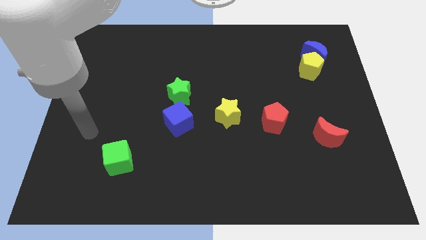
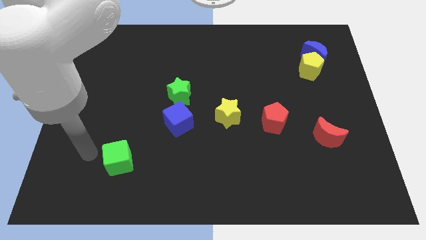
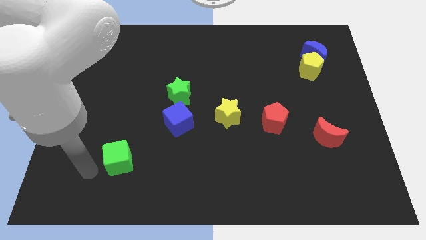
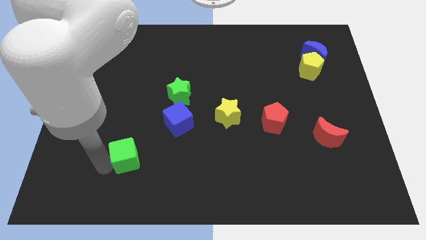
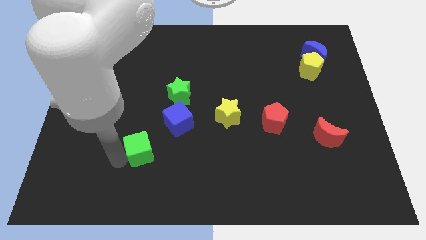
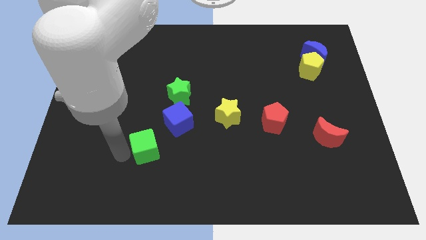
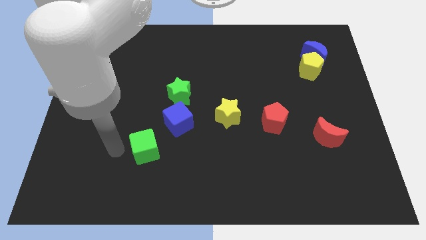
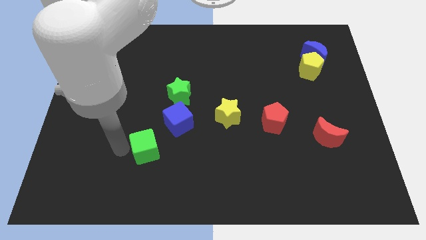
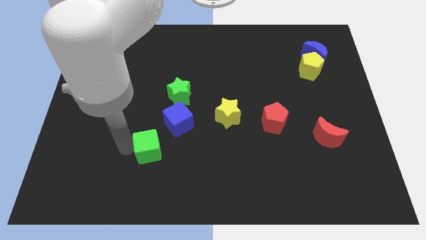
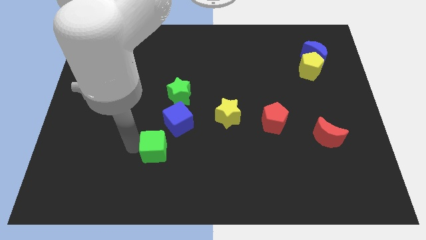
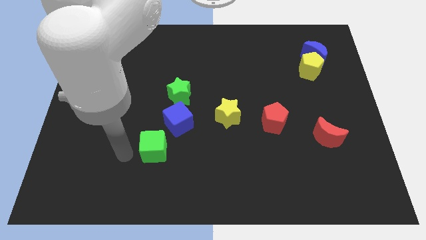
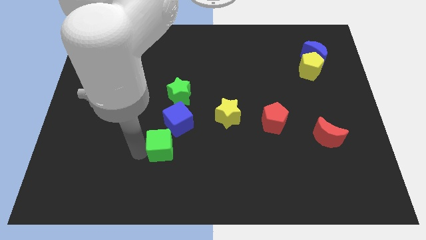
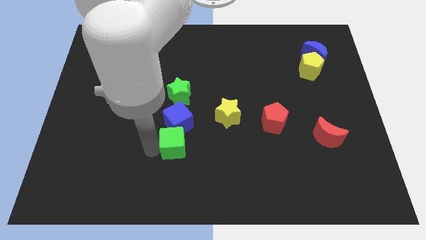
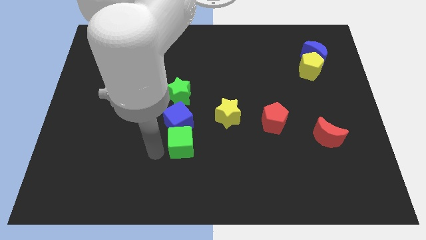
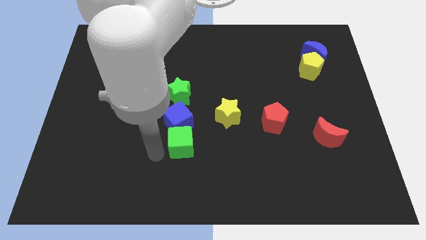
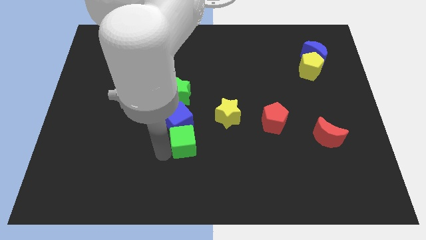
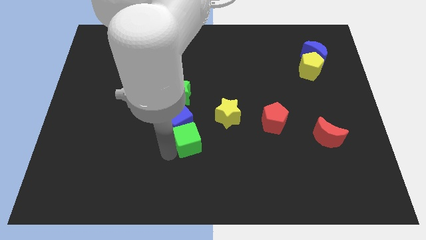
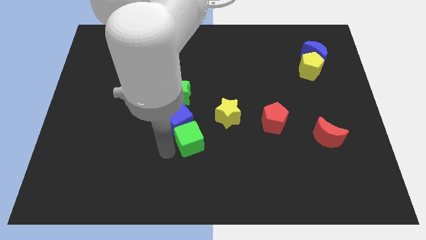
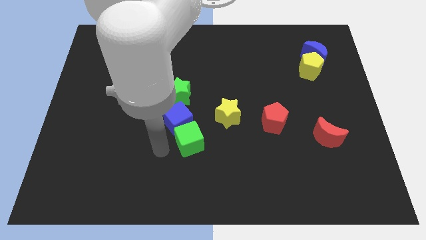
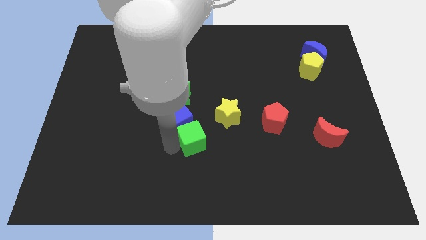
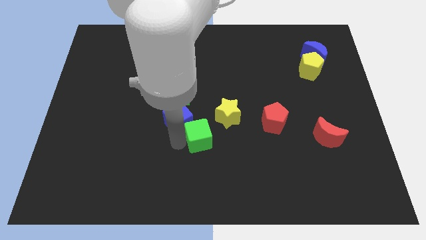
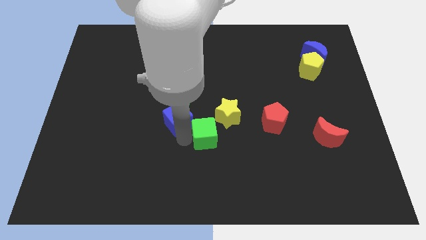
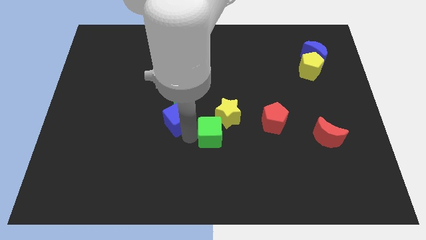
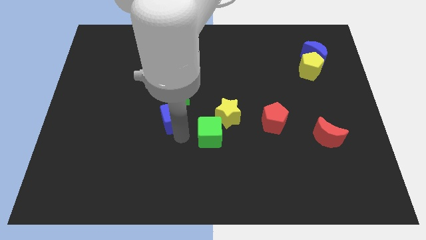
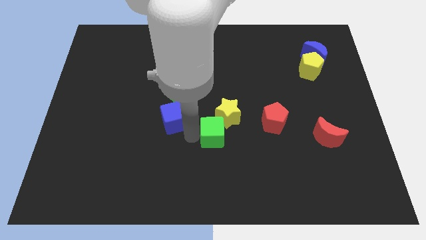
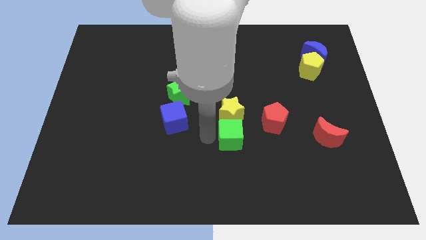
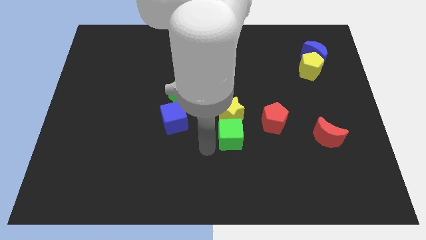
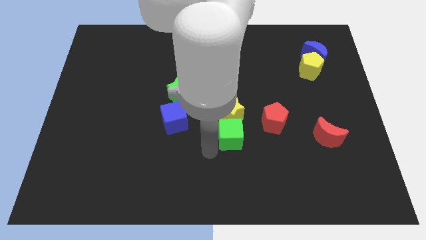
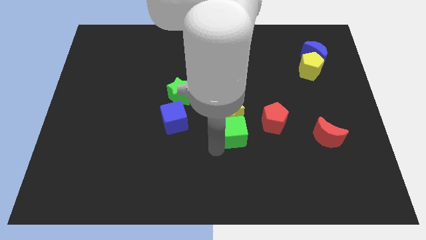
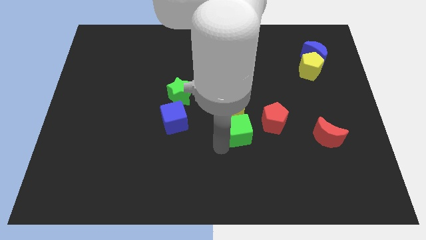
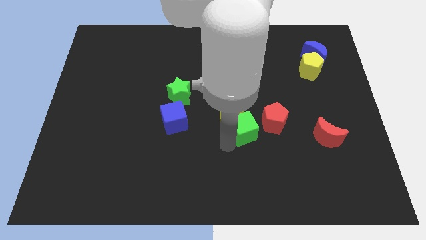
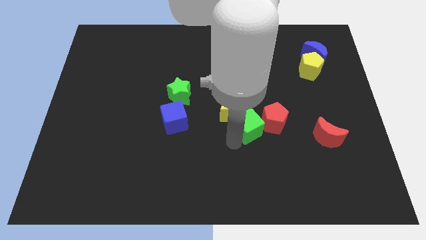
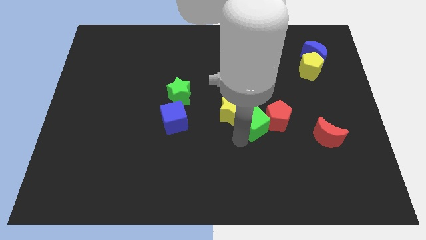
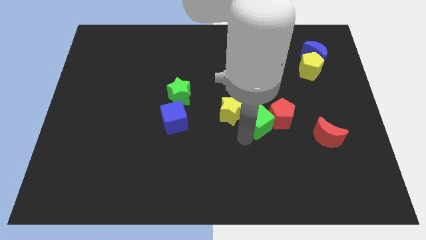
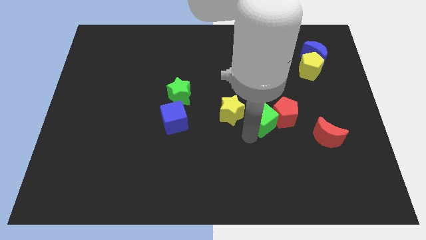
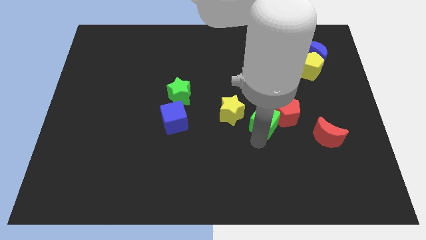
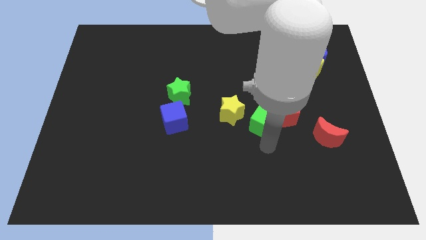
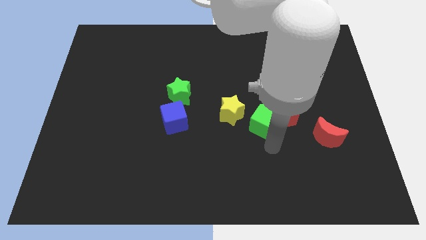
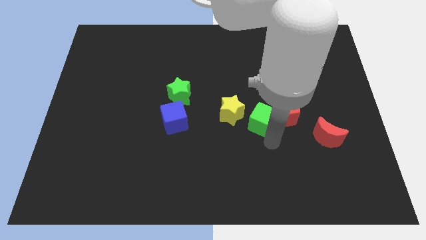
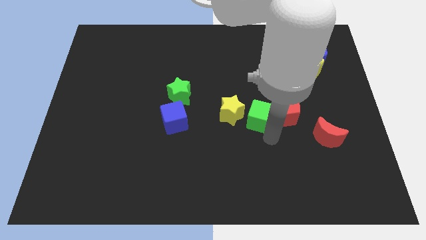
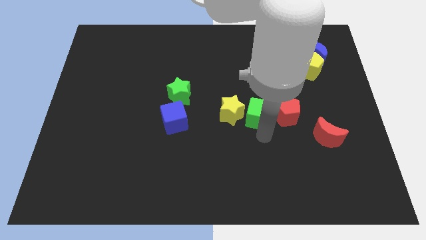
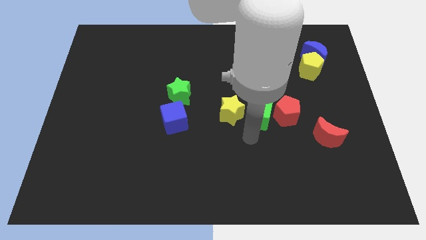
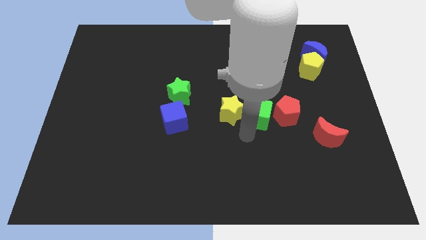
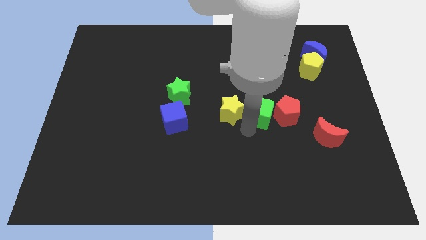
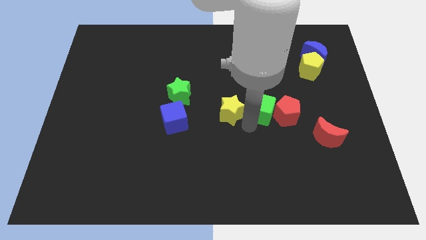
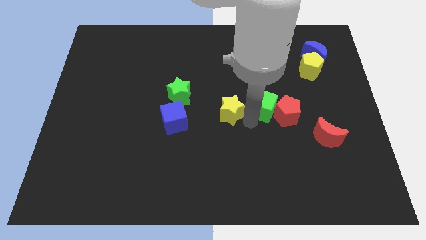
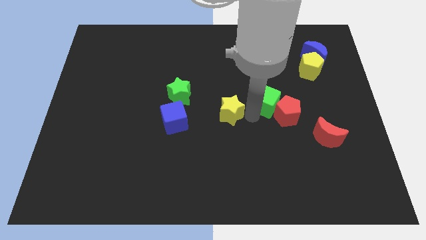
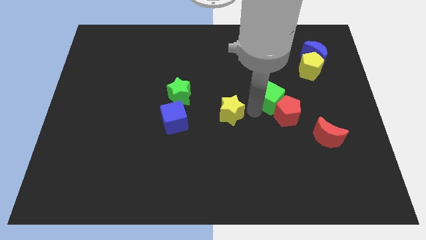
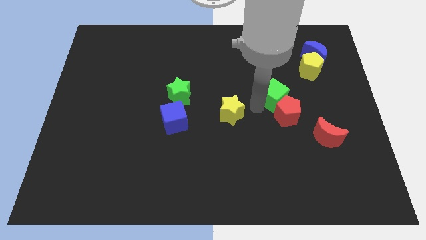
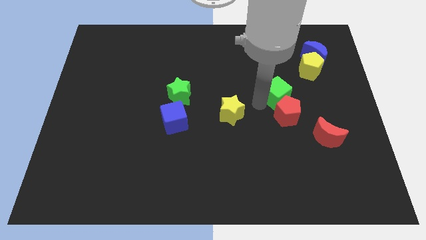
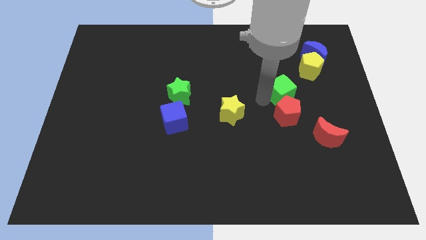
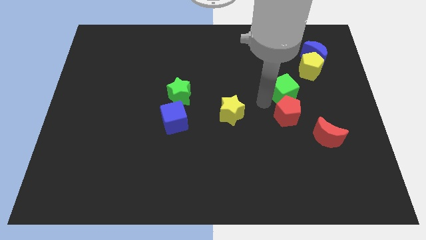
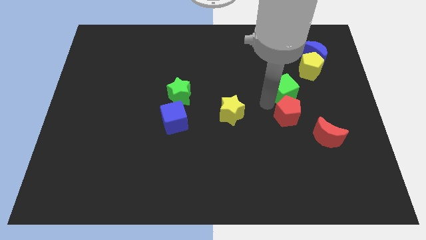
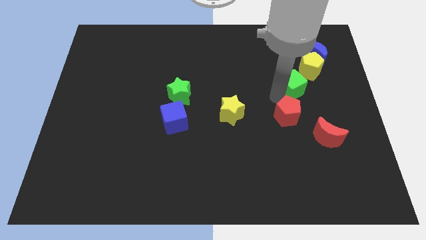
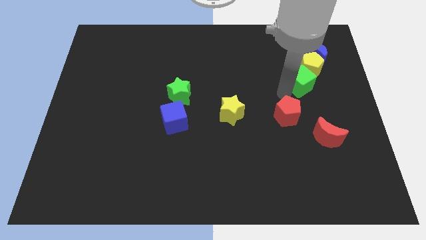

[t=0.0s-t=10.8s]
slide the green cube to the yellow pentagon

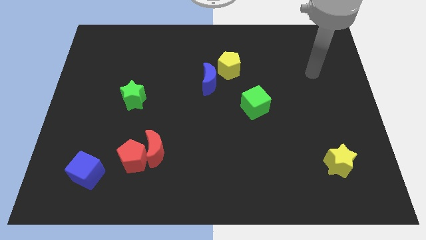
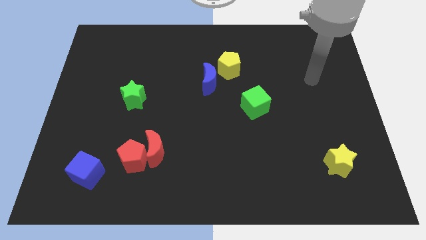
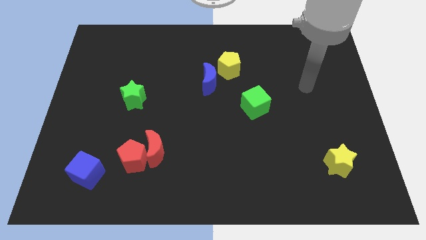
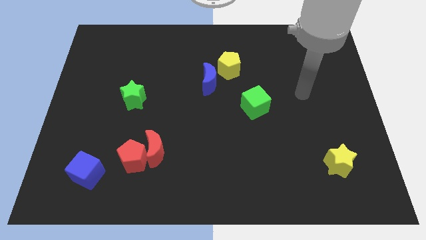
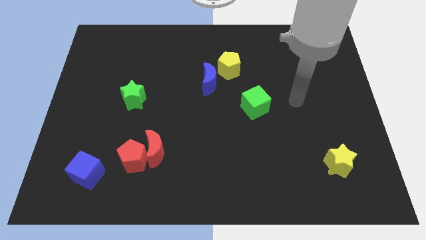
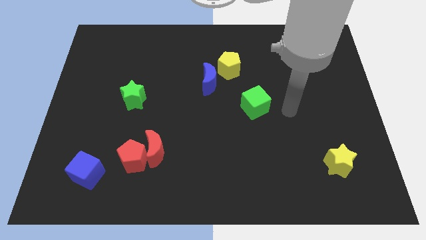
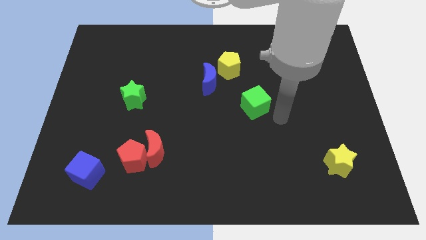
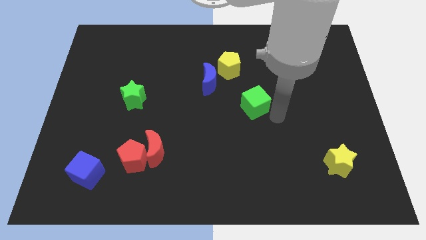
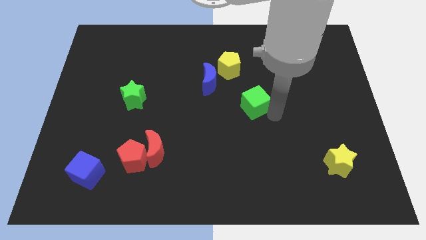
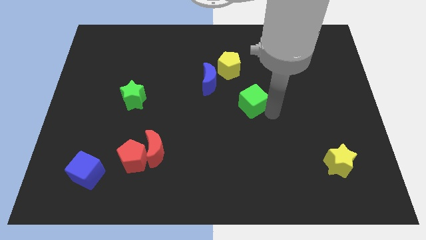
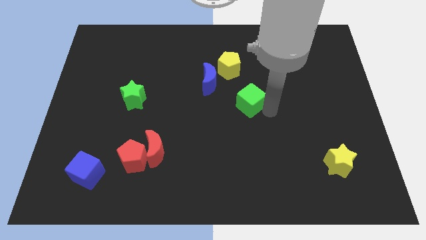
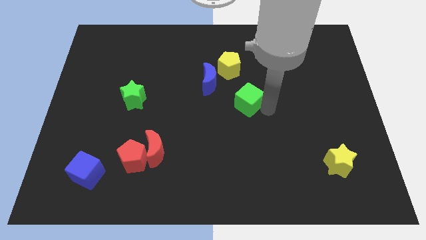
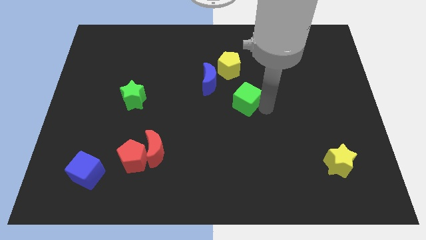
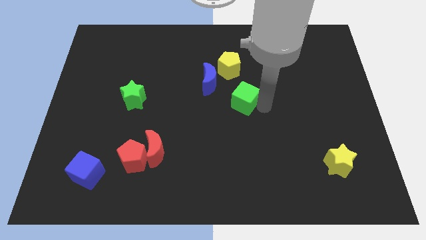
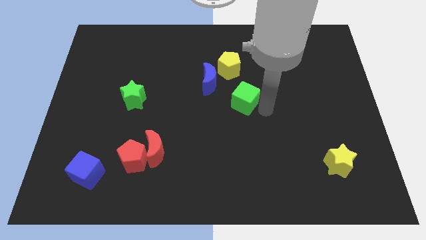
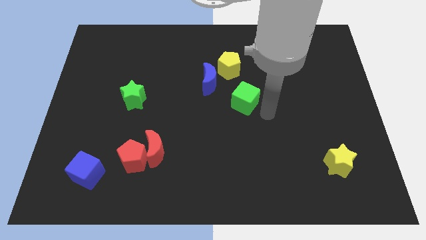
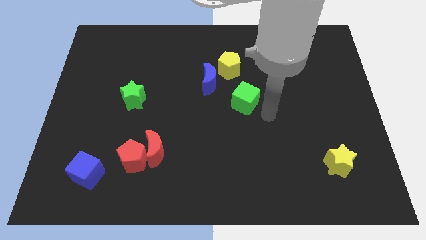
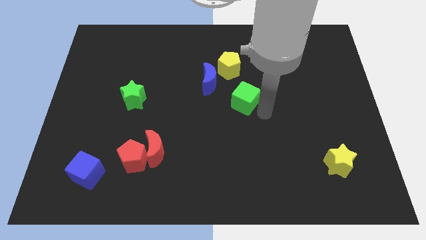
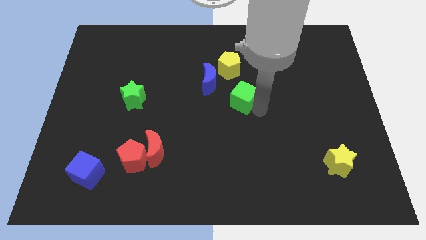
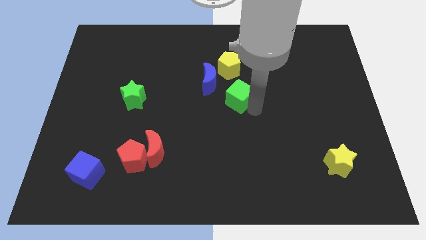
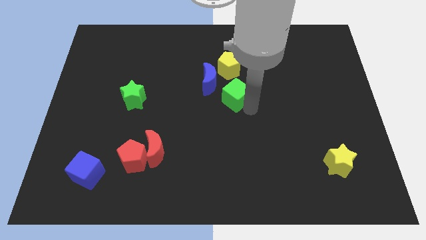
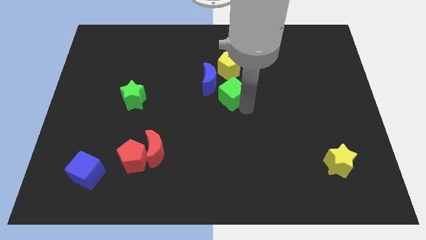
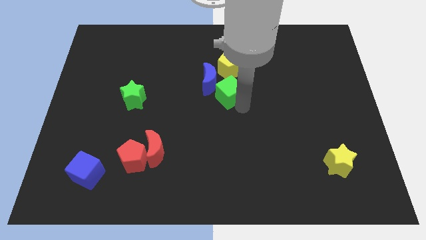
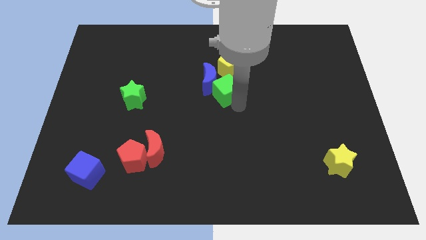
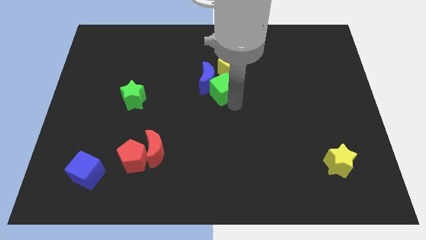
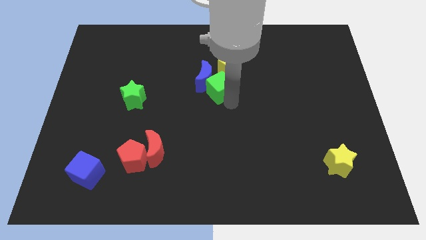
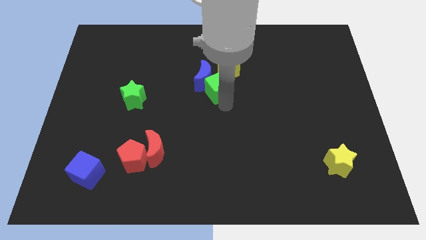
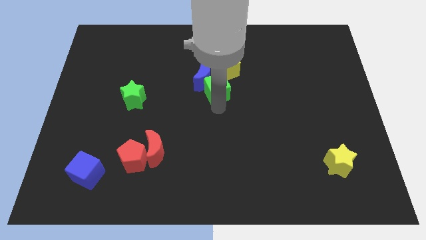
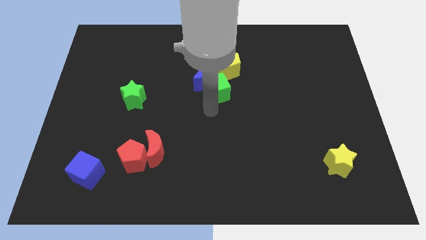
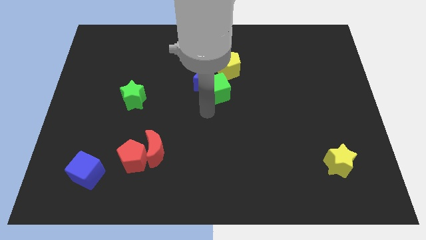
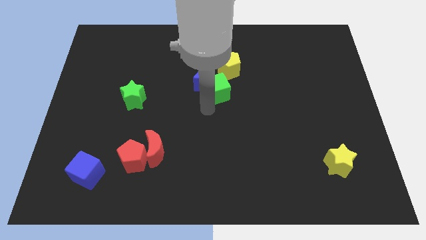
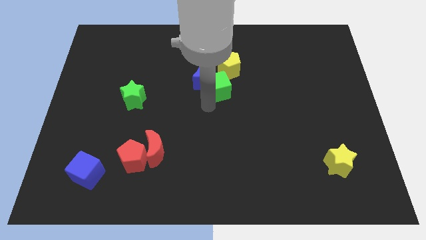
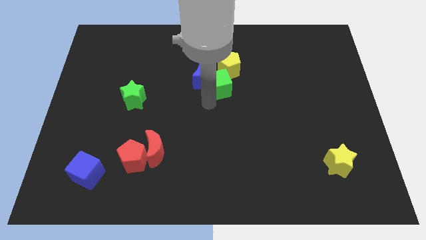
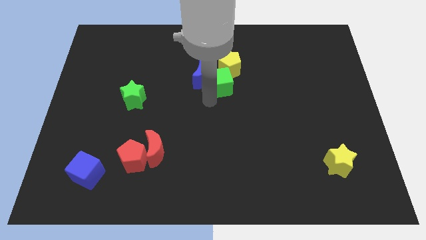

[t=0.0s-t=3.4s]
push the green cube next to the yellow pentagon
